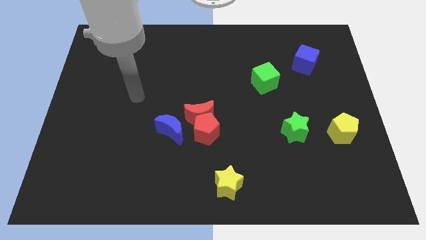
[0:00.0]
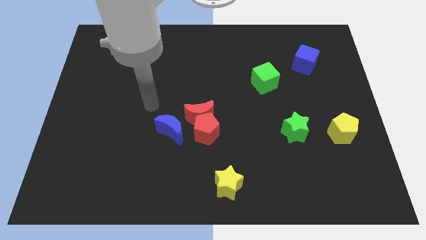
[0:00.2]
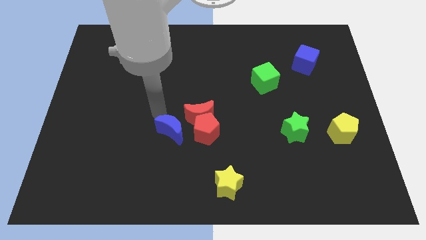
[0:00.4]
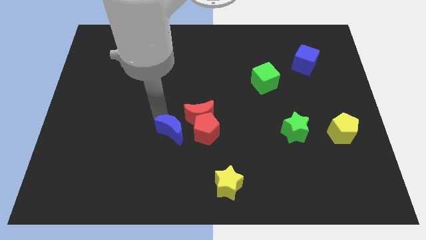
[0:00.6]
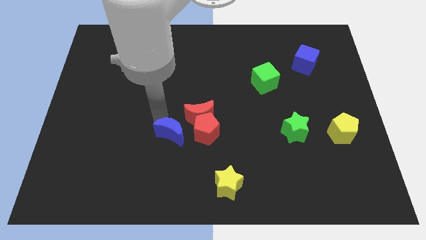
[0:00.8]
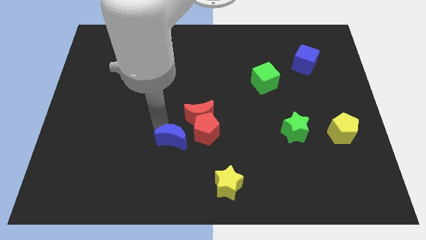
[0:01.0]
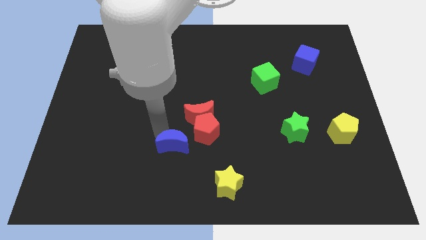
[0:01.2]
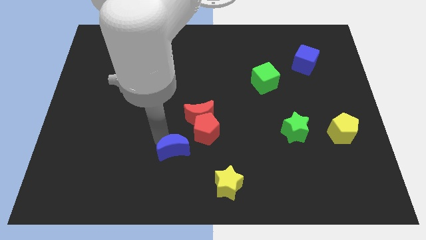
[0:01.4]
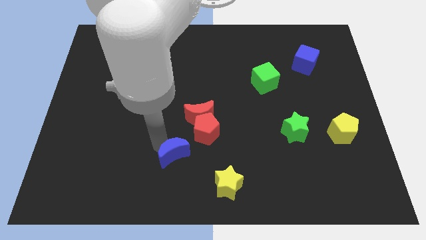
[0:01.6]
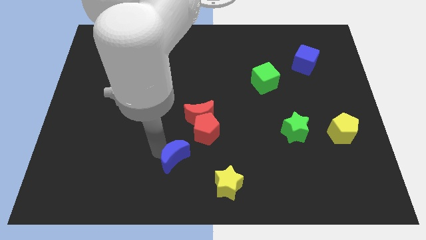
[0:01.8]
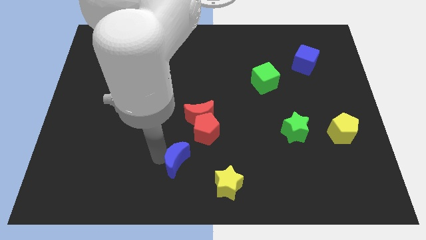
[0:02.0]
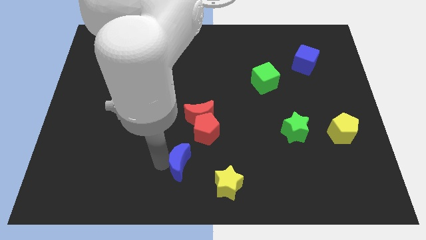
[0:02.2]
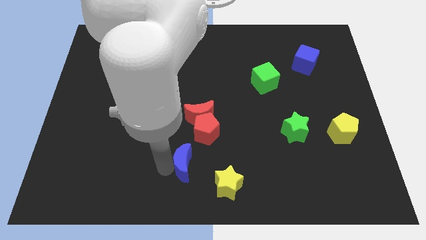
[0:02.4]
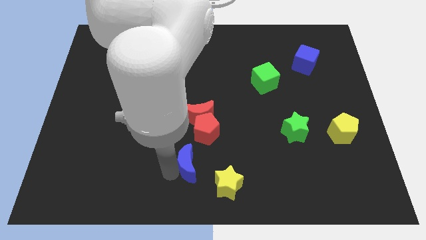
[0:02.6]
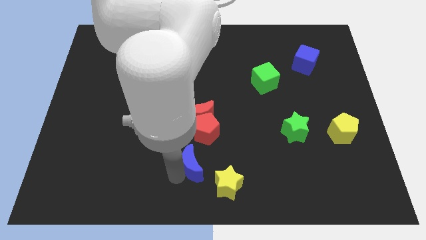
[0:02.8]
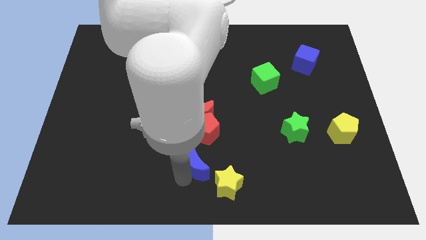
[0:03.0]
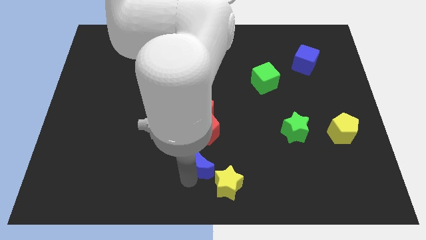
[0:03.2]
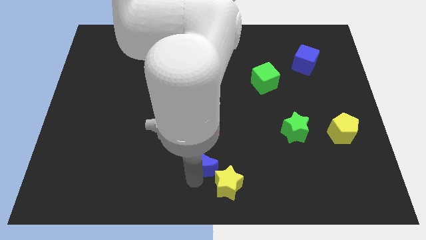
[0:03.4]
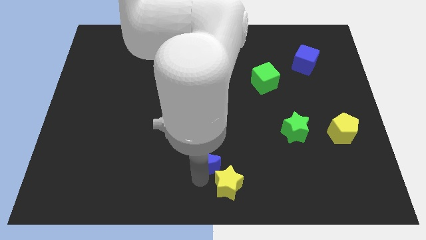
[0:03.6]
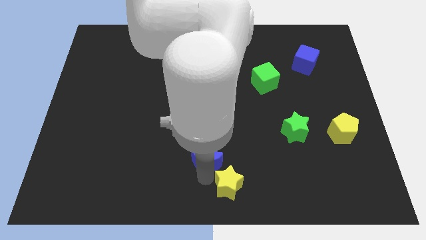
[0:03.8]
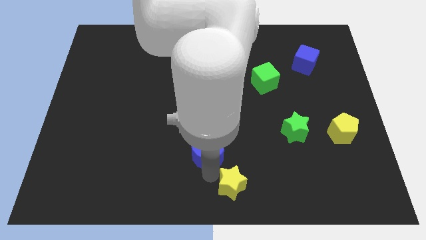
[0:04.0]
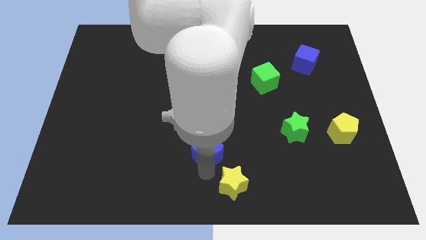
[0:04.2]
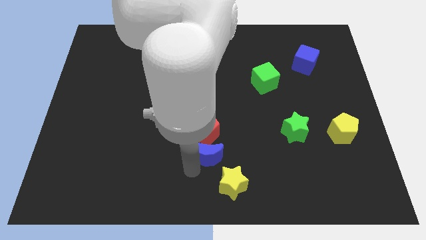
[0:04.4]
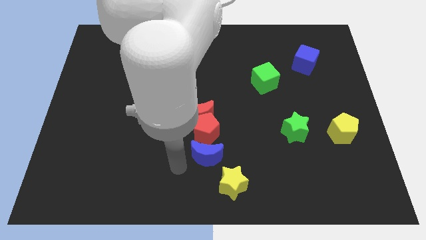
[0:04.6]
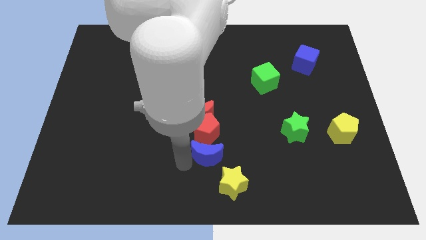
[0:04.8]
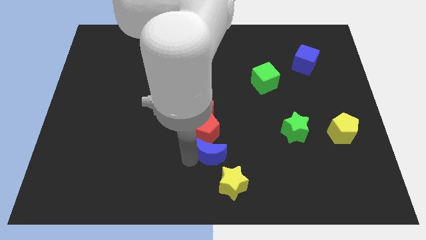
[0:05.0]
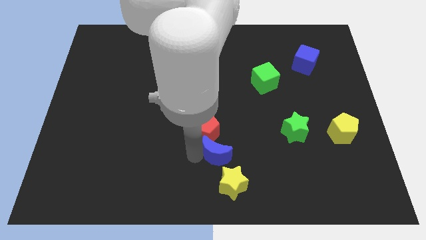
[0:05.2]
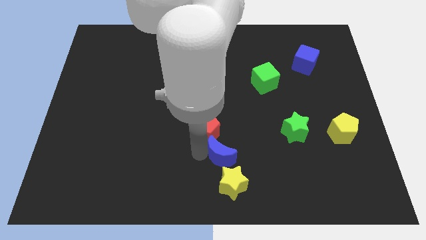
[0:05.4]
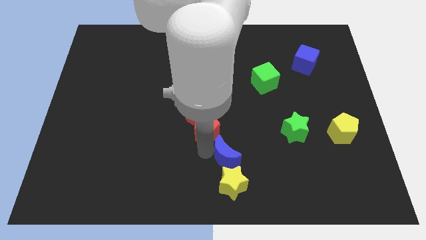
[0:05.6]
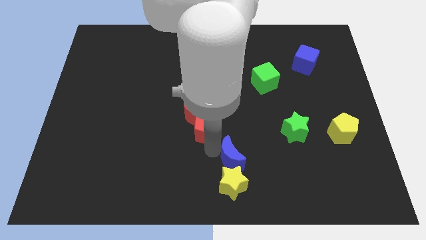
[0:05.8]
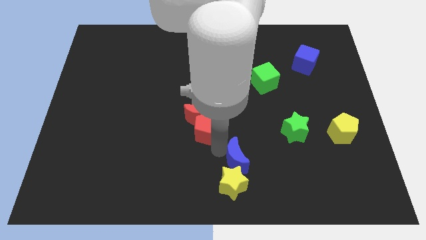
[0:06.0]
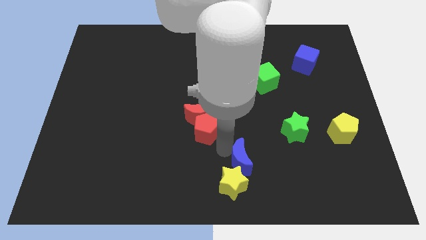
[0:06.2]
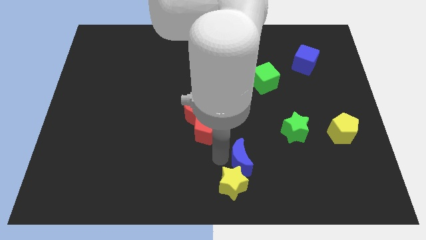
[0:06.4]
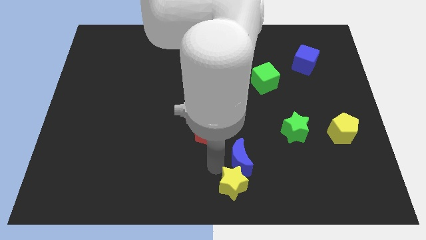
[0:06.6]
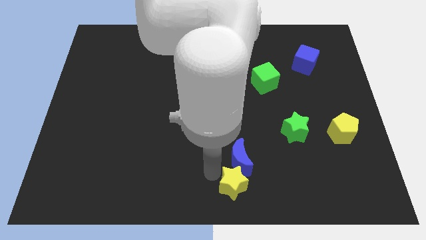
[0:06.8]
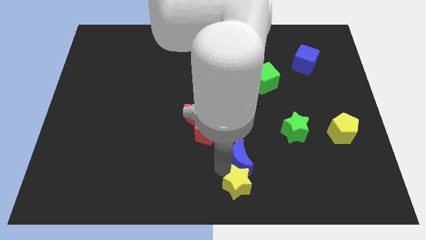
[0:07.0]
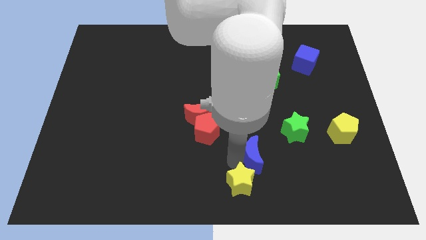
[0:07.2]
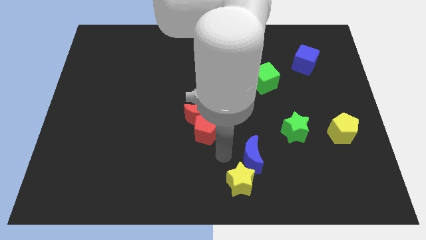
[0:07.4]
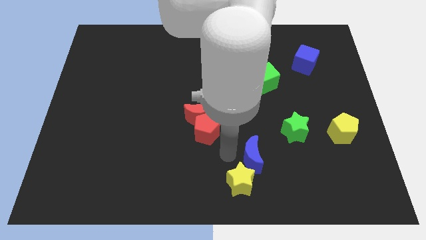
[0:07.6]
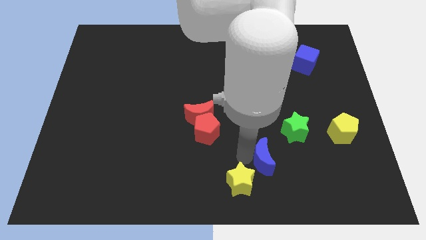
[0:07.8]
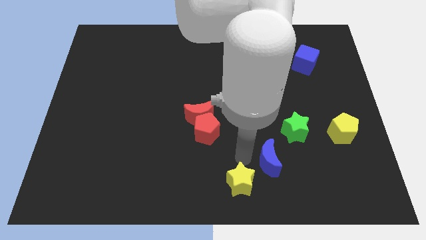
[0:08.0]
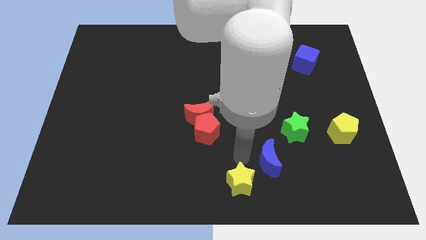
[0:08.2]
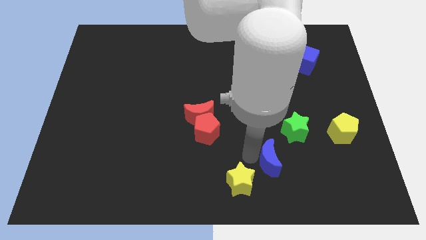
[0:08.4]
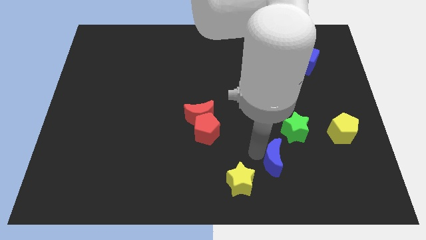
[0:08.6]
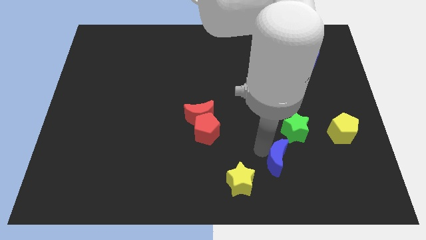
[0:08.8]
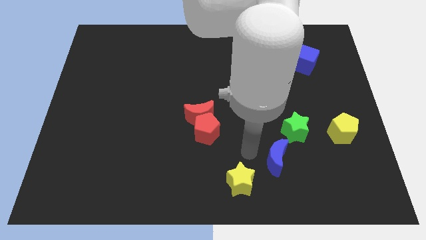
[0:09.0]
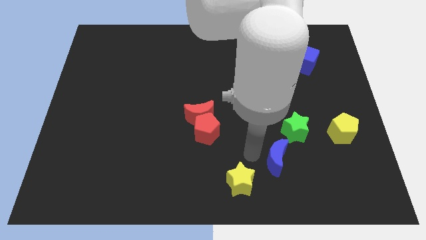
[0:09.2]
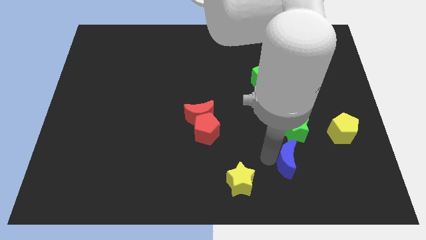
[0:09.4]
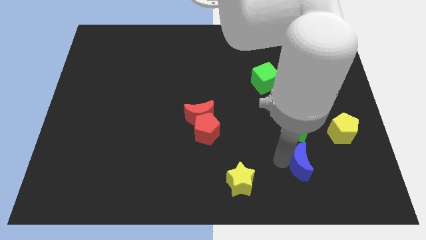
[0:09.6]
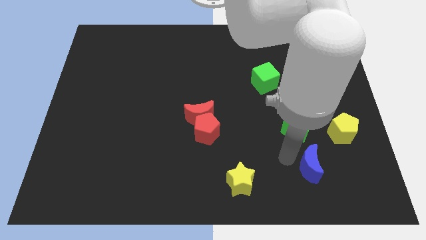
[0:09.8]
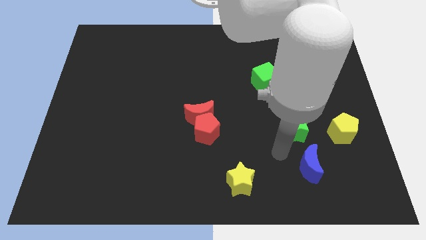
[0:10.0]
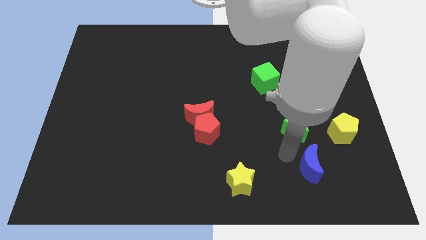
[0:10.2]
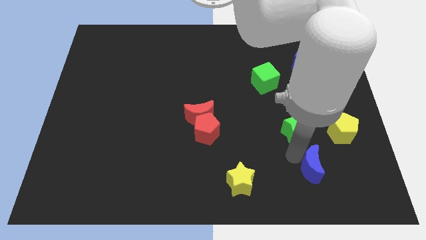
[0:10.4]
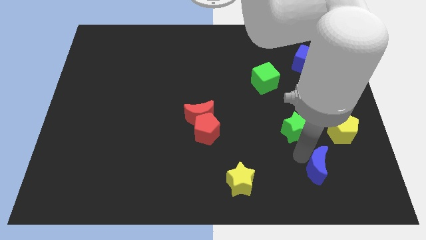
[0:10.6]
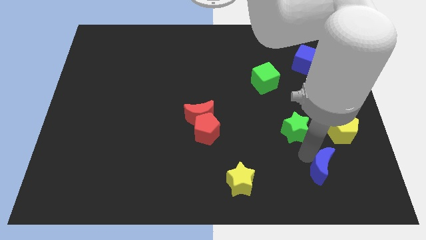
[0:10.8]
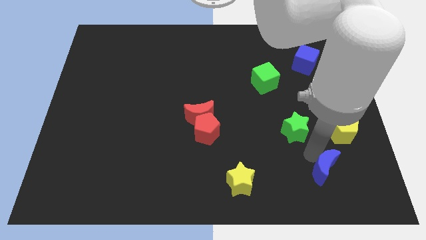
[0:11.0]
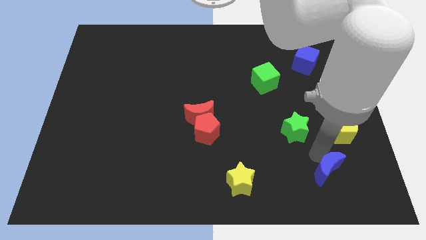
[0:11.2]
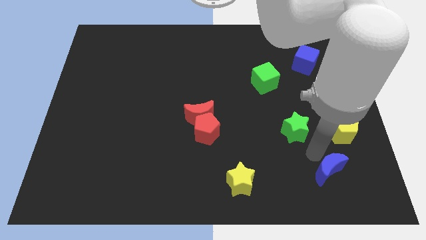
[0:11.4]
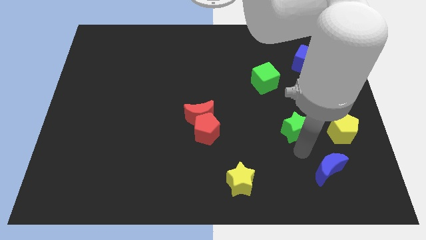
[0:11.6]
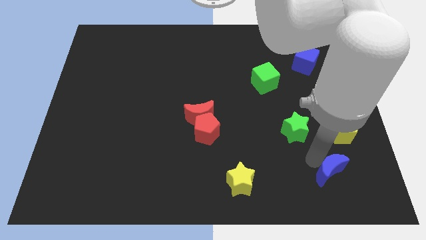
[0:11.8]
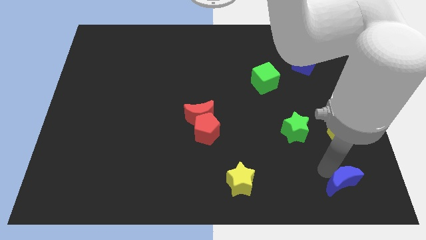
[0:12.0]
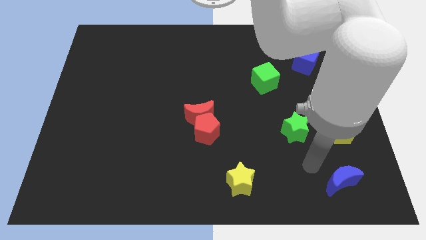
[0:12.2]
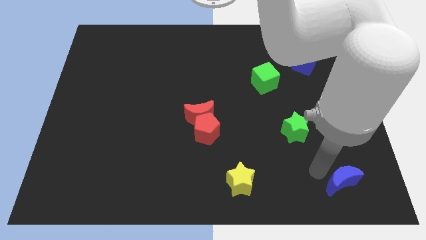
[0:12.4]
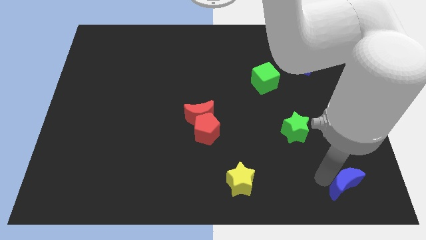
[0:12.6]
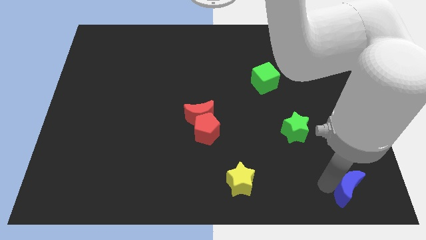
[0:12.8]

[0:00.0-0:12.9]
move the blue moon to the bottom right
